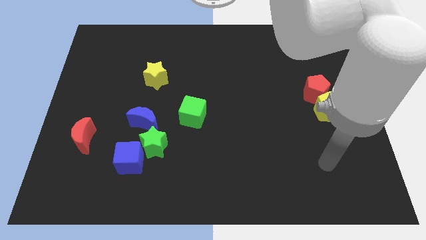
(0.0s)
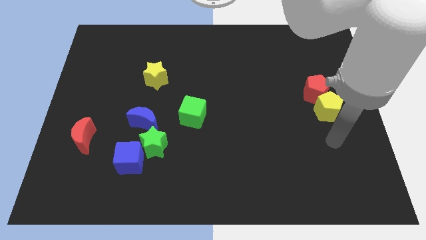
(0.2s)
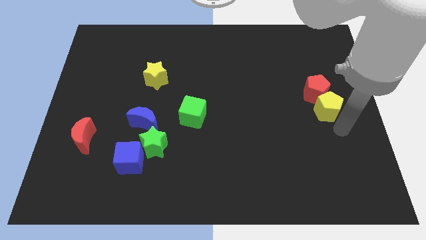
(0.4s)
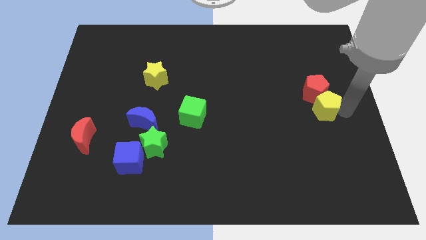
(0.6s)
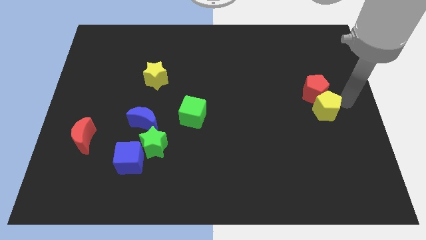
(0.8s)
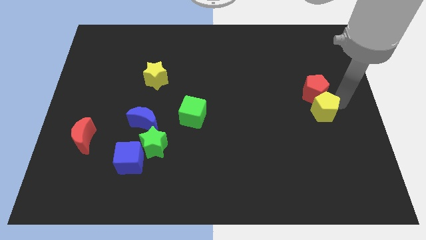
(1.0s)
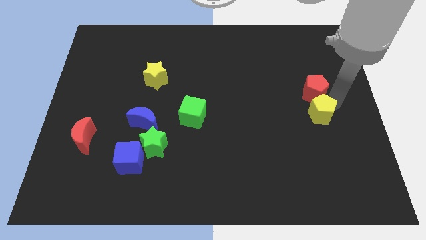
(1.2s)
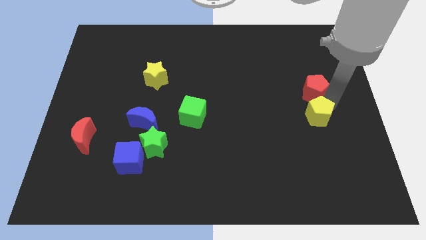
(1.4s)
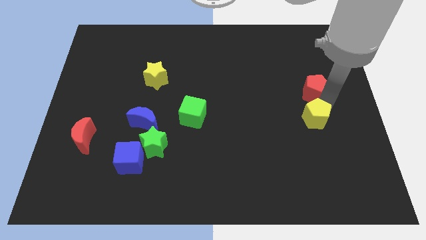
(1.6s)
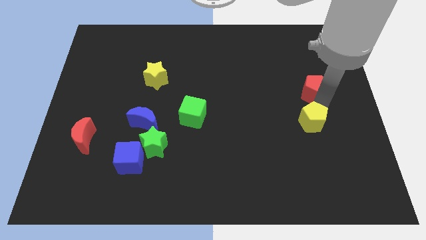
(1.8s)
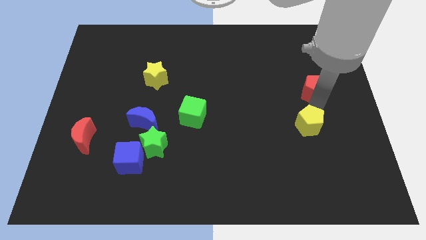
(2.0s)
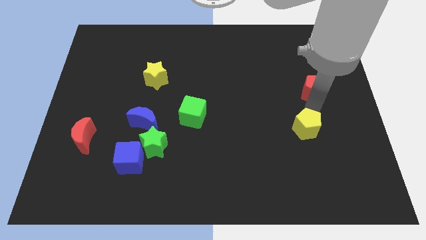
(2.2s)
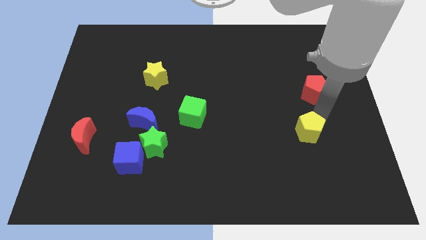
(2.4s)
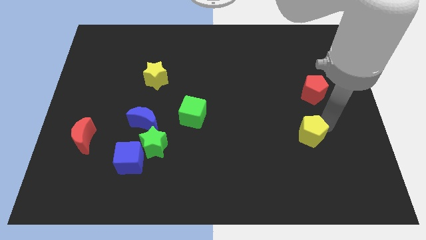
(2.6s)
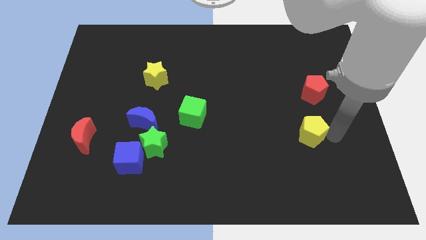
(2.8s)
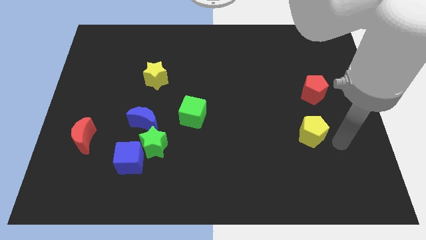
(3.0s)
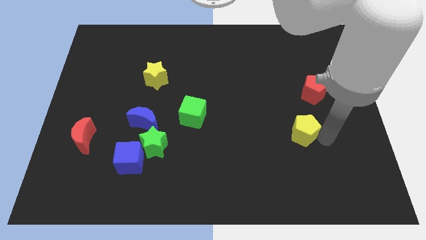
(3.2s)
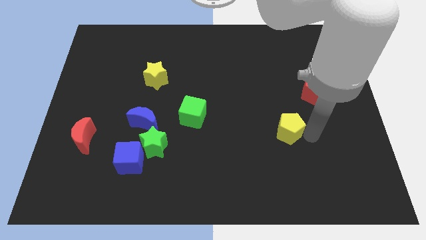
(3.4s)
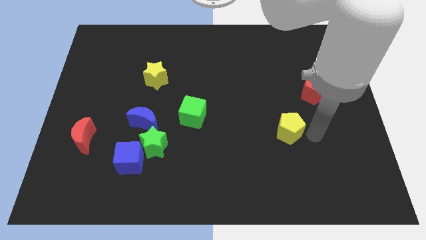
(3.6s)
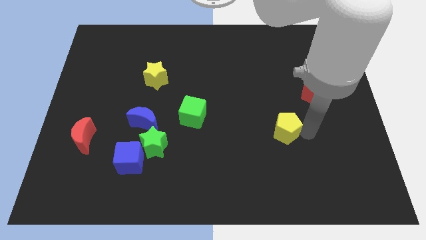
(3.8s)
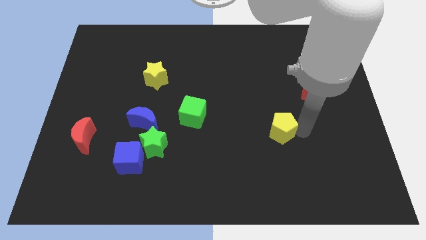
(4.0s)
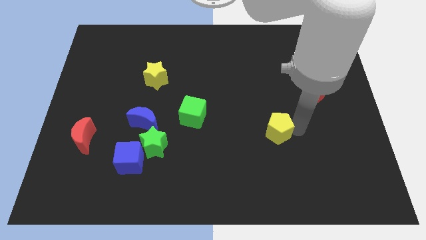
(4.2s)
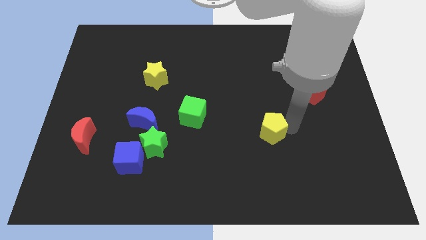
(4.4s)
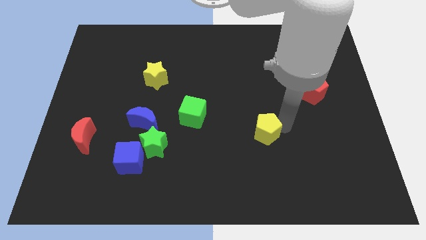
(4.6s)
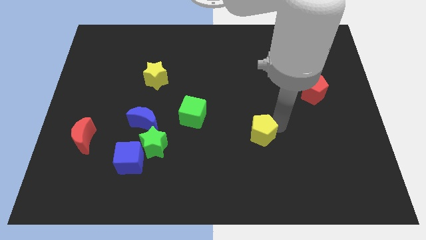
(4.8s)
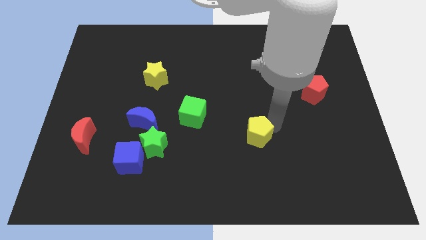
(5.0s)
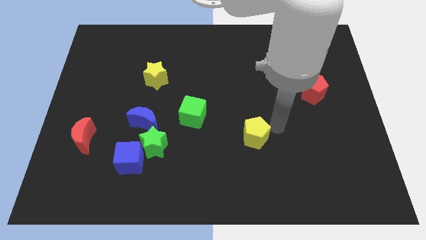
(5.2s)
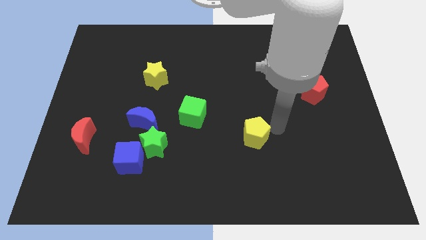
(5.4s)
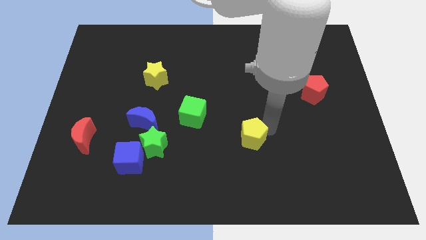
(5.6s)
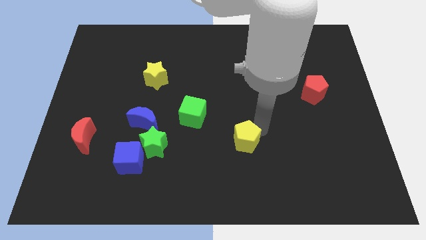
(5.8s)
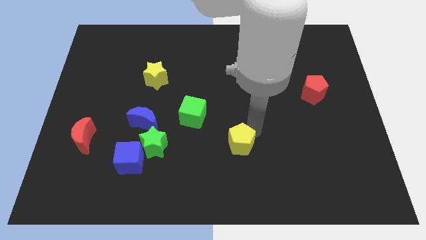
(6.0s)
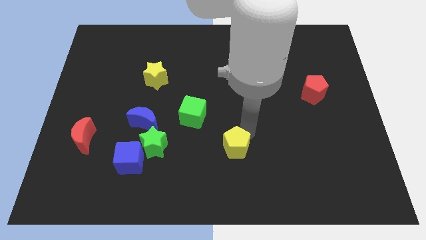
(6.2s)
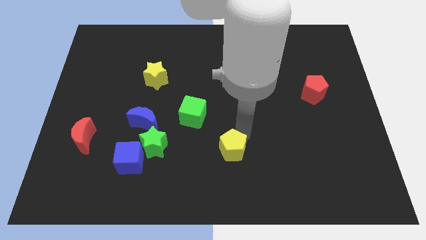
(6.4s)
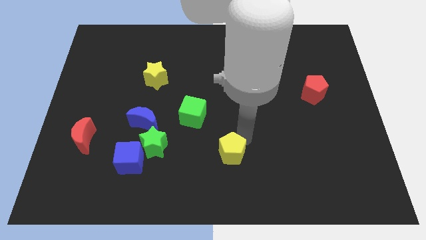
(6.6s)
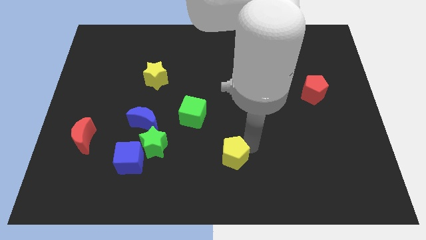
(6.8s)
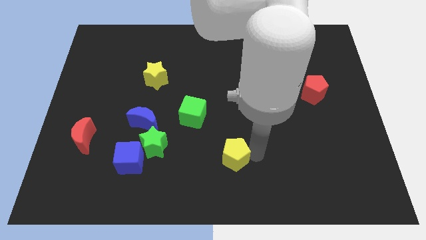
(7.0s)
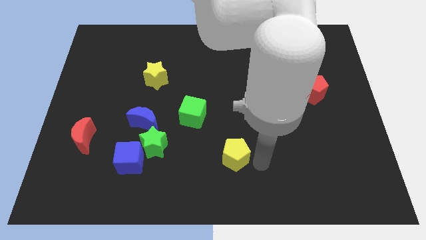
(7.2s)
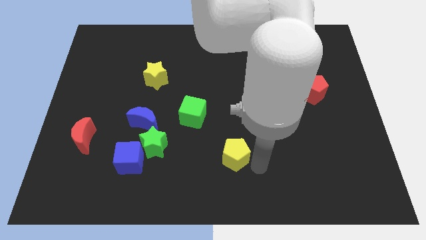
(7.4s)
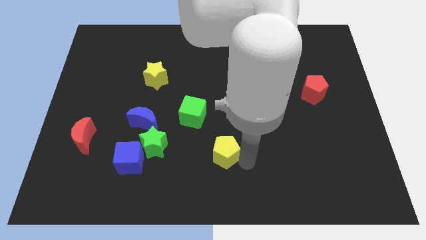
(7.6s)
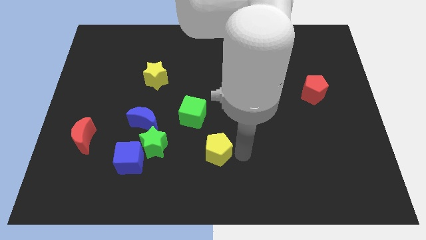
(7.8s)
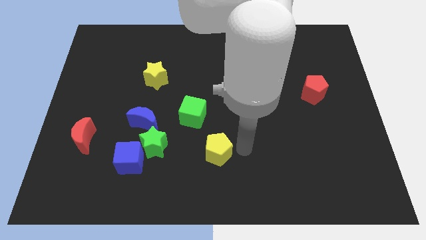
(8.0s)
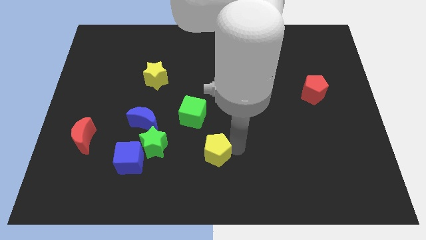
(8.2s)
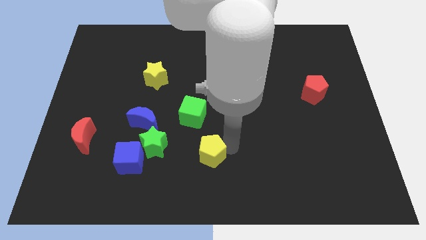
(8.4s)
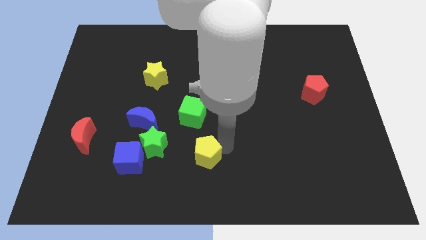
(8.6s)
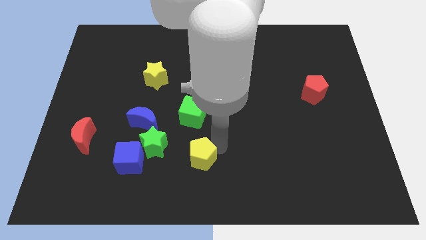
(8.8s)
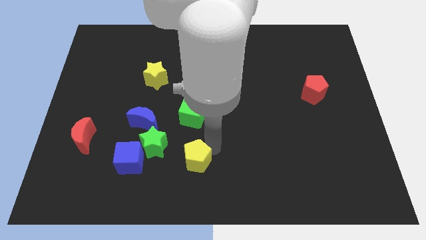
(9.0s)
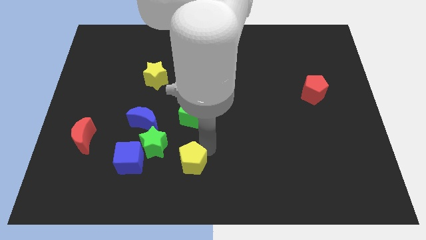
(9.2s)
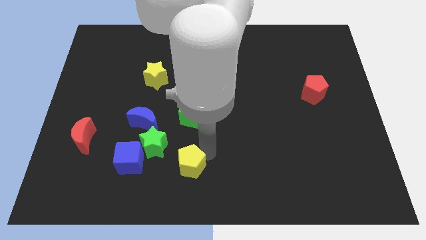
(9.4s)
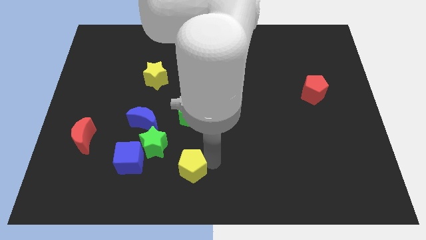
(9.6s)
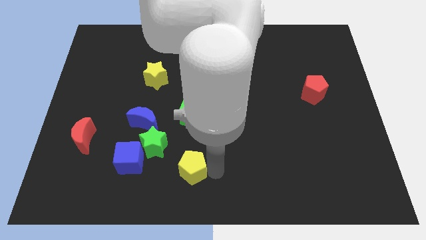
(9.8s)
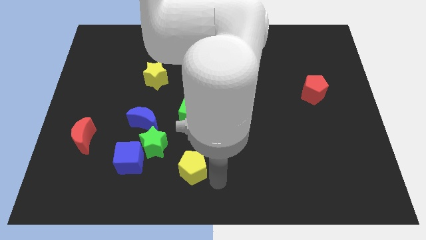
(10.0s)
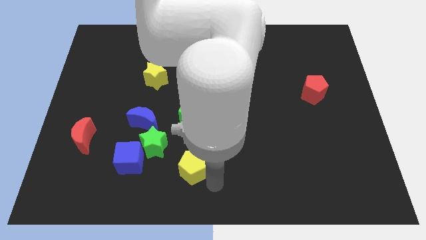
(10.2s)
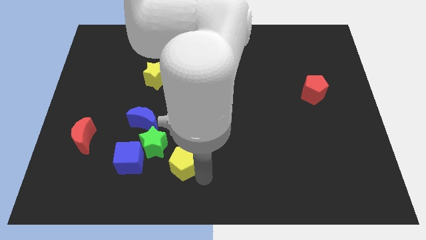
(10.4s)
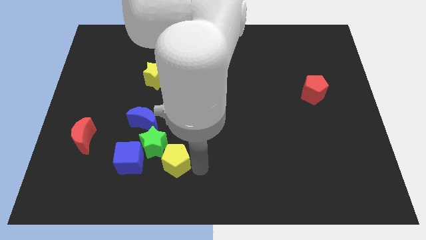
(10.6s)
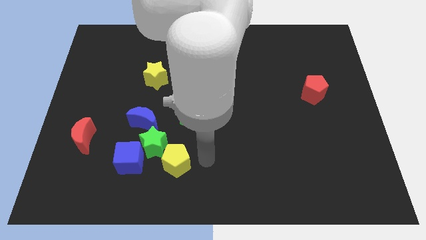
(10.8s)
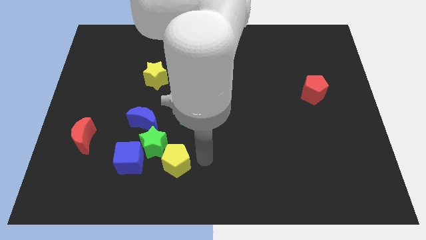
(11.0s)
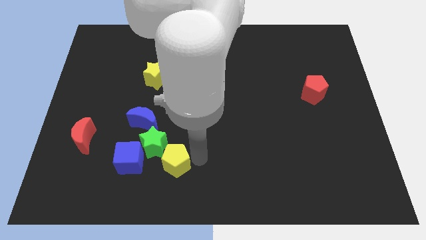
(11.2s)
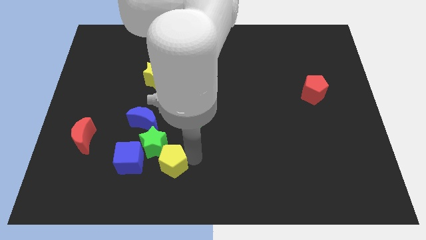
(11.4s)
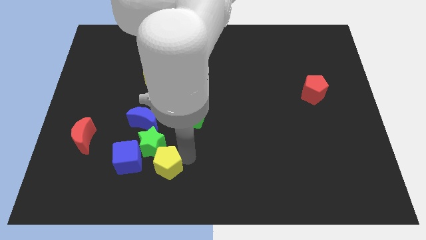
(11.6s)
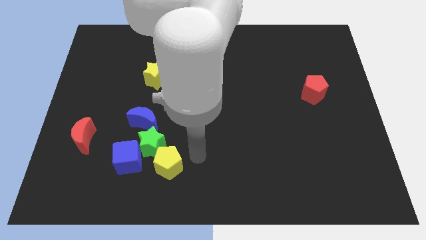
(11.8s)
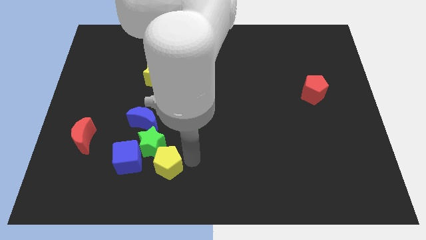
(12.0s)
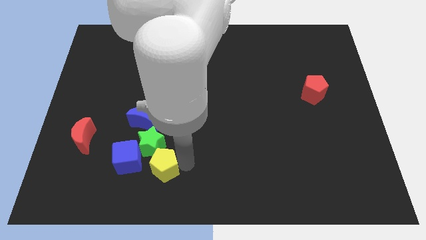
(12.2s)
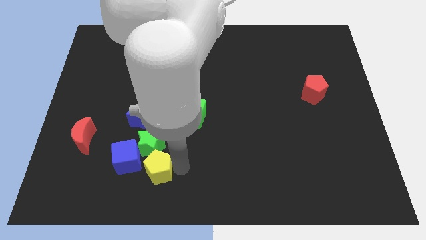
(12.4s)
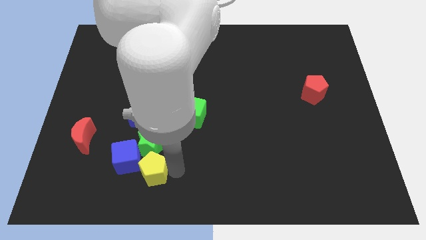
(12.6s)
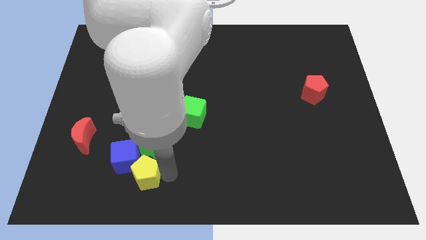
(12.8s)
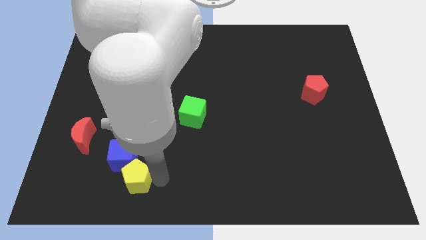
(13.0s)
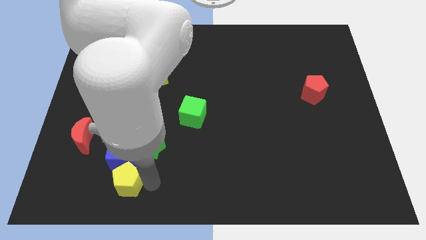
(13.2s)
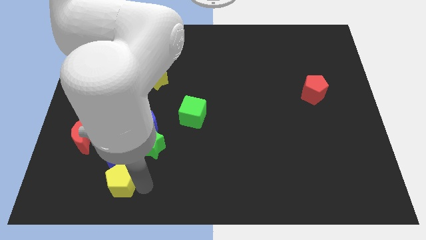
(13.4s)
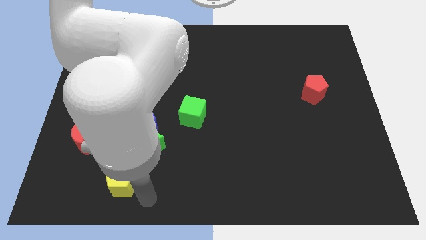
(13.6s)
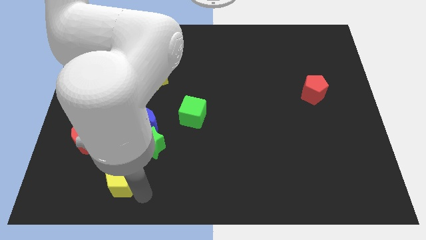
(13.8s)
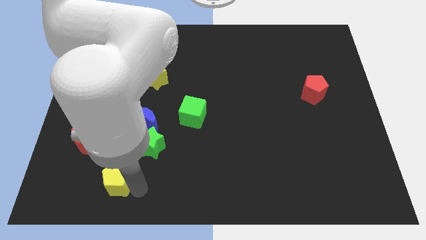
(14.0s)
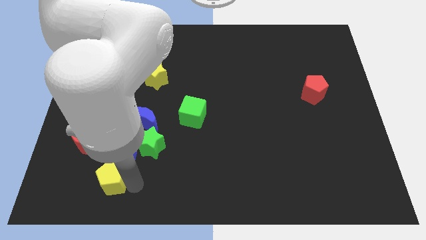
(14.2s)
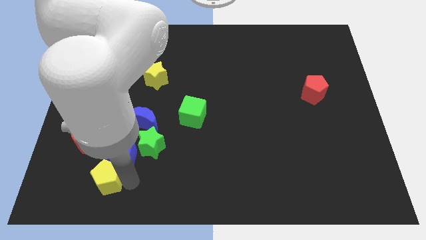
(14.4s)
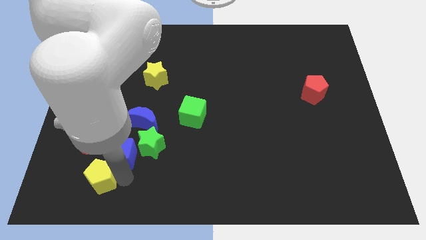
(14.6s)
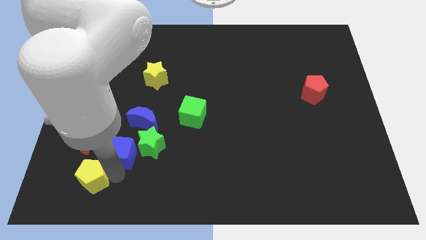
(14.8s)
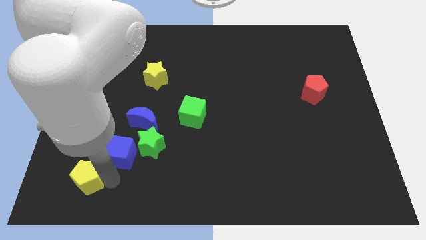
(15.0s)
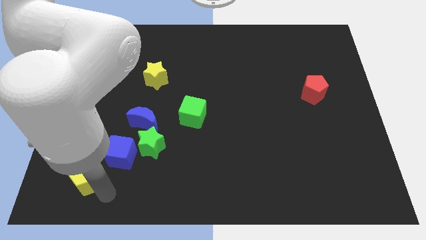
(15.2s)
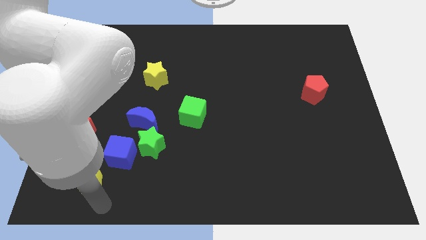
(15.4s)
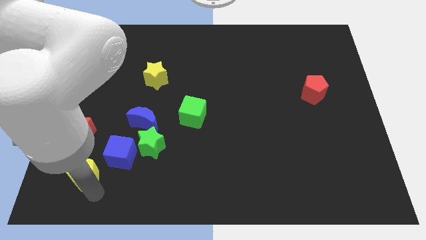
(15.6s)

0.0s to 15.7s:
put the yellow pentagon left of the blue cube
